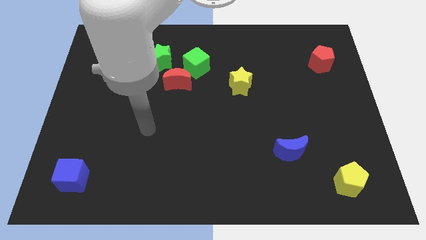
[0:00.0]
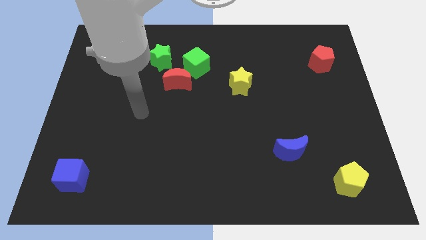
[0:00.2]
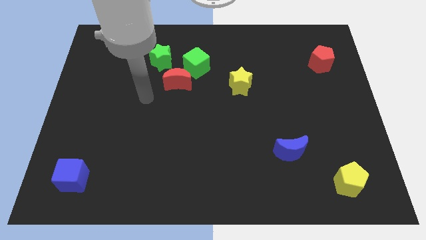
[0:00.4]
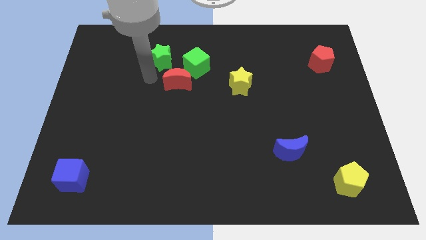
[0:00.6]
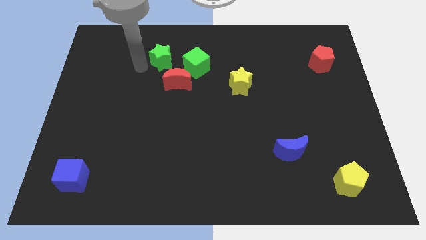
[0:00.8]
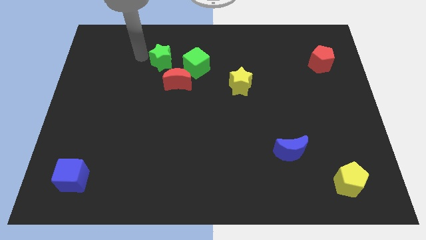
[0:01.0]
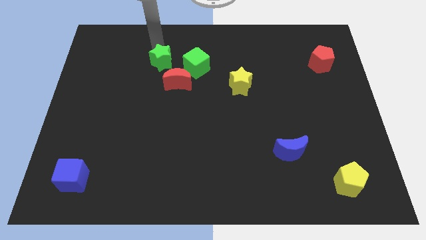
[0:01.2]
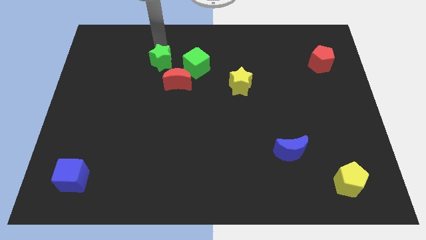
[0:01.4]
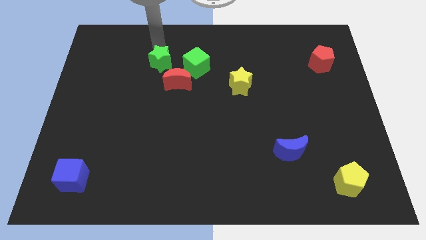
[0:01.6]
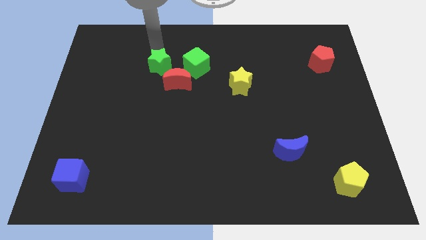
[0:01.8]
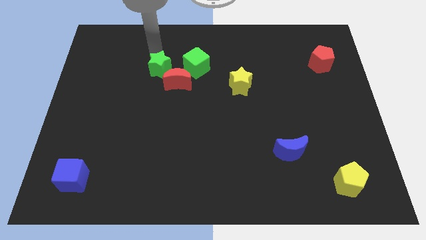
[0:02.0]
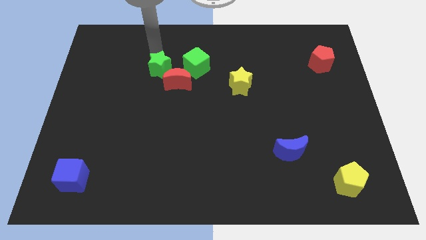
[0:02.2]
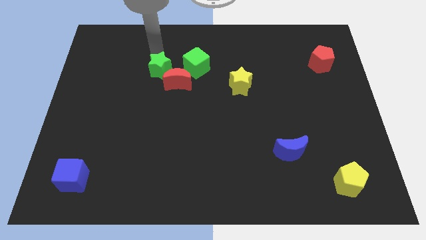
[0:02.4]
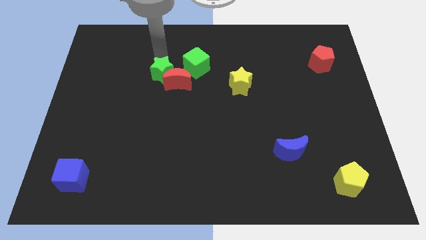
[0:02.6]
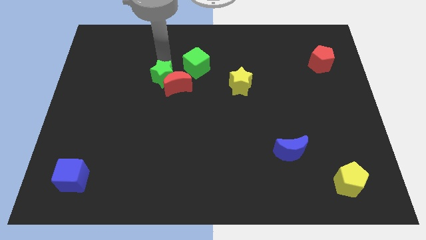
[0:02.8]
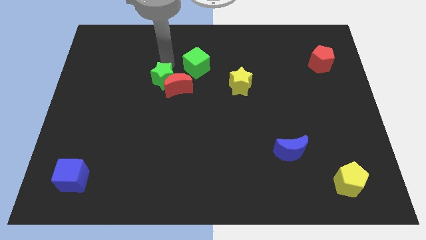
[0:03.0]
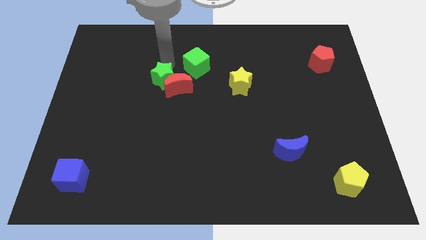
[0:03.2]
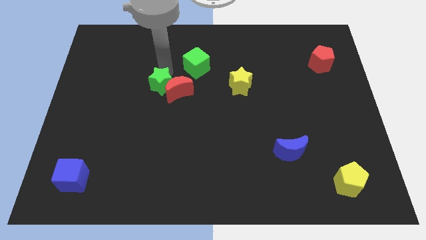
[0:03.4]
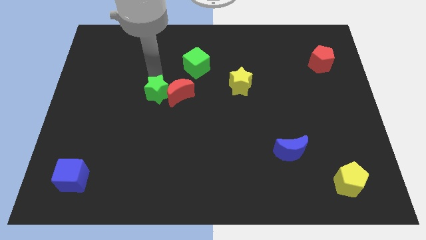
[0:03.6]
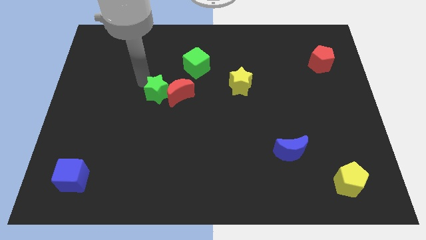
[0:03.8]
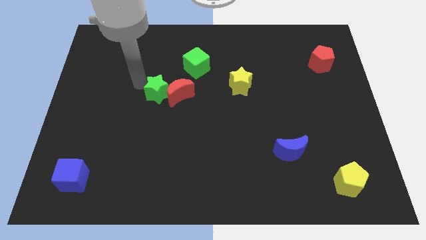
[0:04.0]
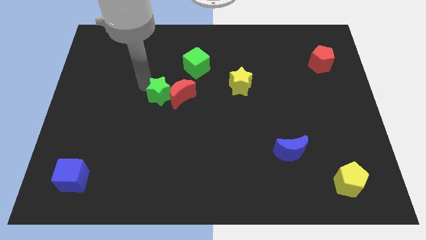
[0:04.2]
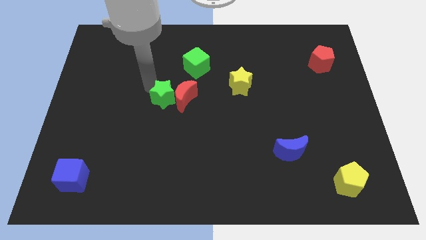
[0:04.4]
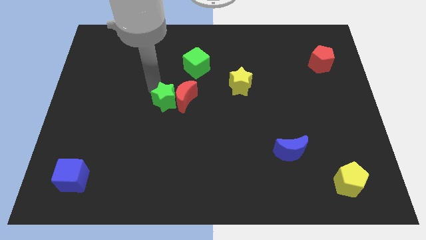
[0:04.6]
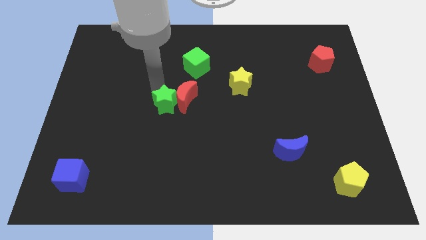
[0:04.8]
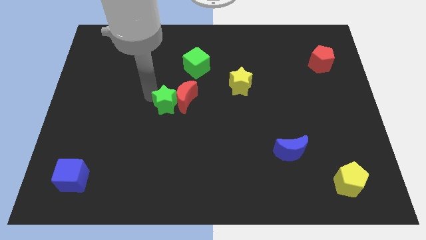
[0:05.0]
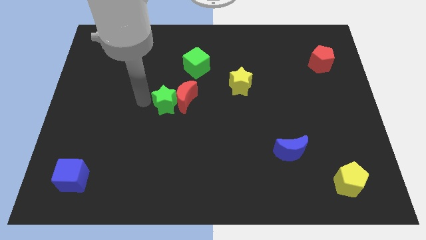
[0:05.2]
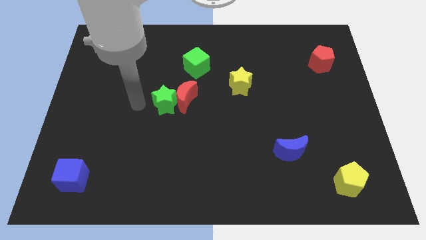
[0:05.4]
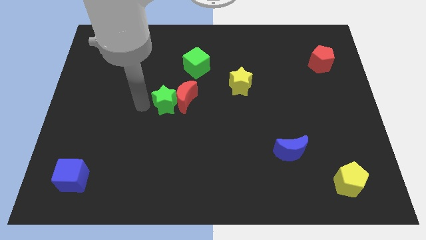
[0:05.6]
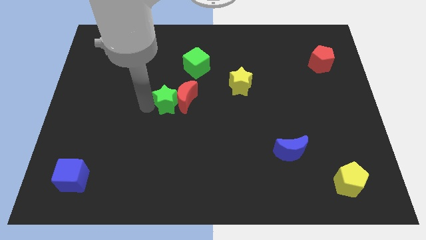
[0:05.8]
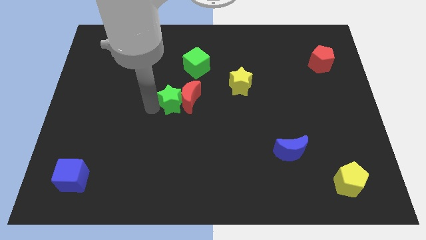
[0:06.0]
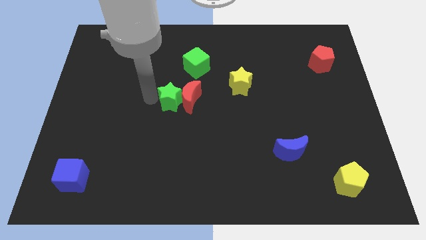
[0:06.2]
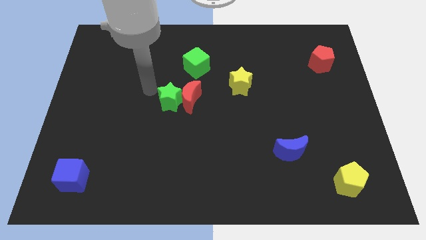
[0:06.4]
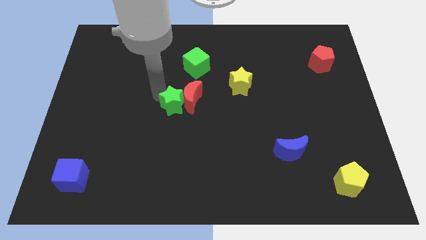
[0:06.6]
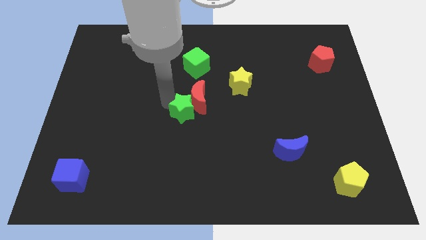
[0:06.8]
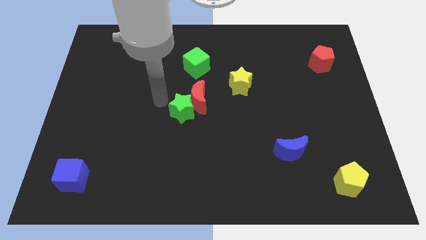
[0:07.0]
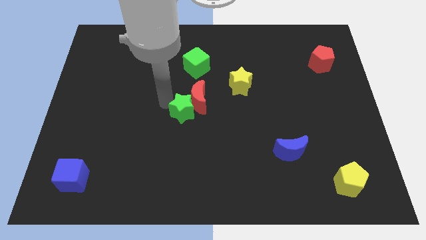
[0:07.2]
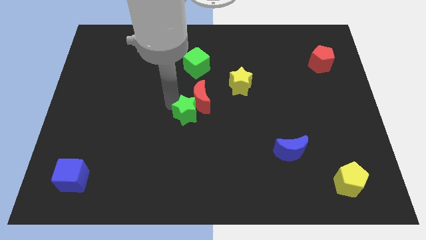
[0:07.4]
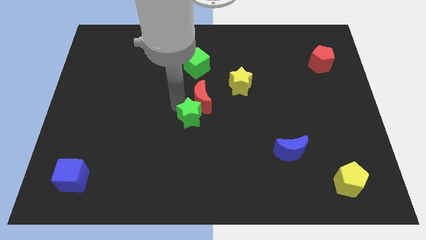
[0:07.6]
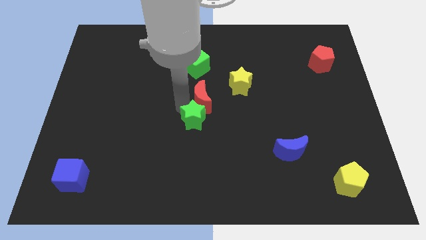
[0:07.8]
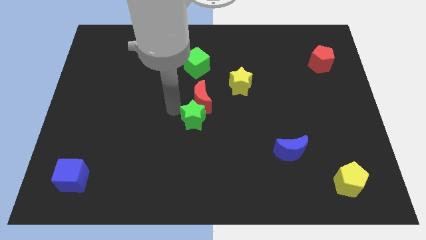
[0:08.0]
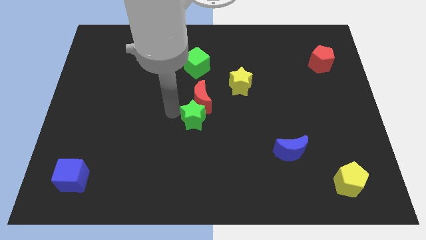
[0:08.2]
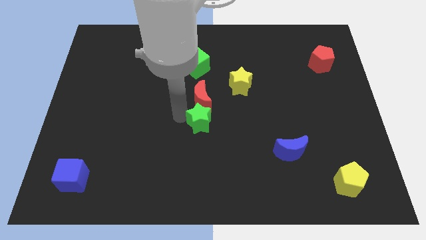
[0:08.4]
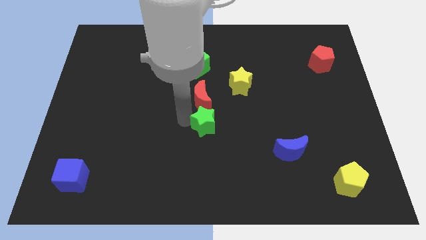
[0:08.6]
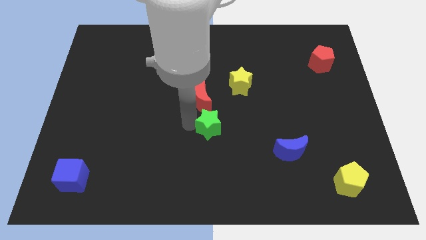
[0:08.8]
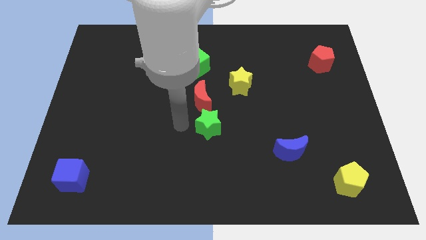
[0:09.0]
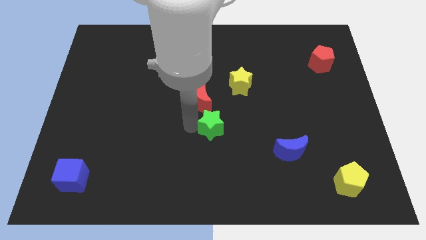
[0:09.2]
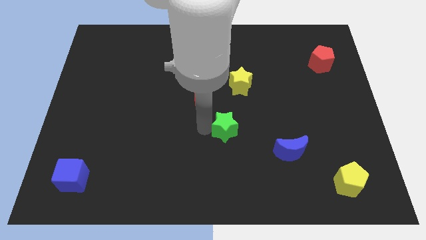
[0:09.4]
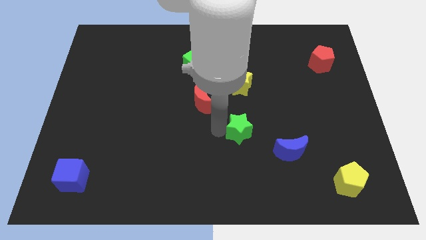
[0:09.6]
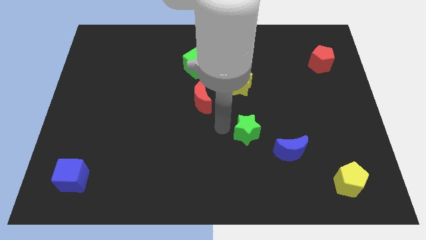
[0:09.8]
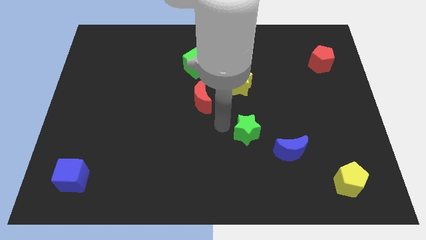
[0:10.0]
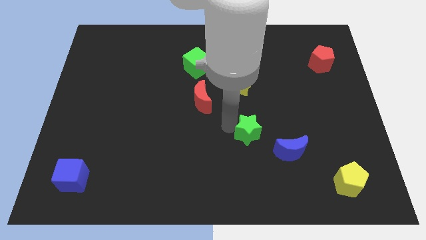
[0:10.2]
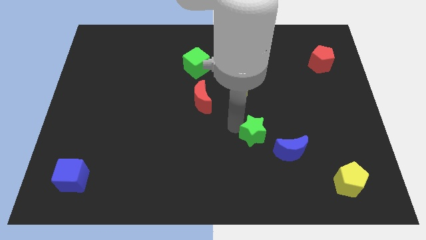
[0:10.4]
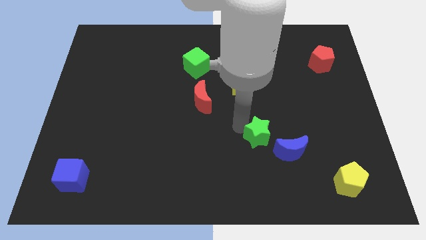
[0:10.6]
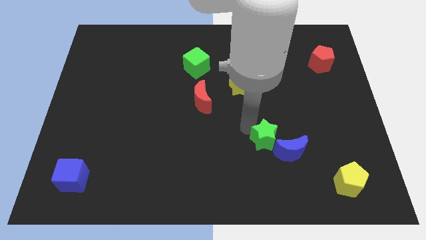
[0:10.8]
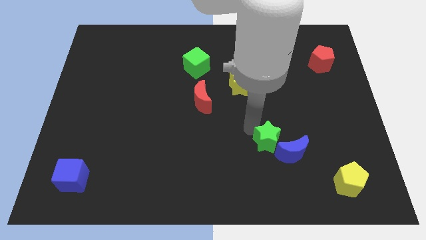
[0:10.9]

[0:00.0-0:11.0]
put the green star next to the blue moon

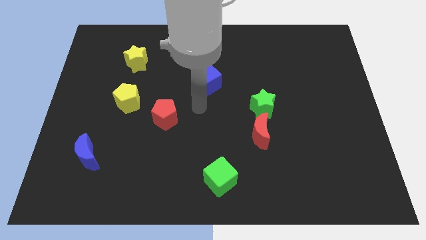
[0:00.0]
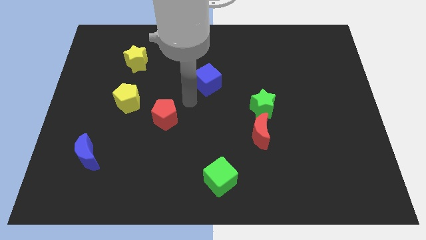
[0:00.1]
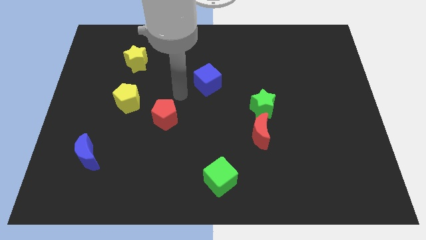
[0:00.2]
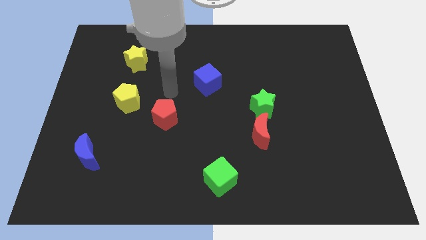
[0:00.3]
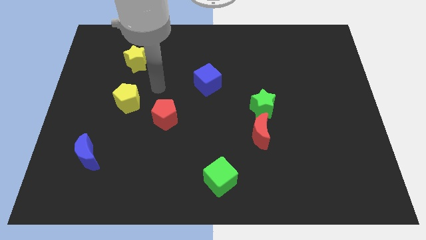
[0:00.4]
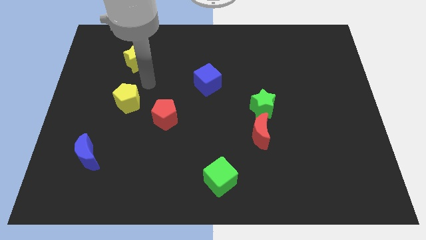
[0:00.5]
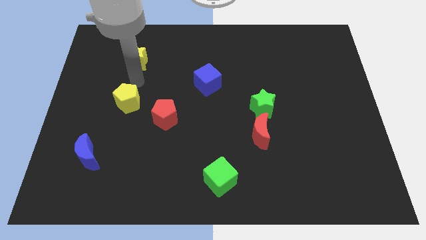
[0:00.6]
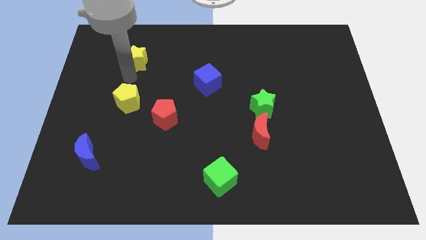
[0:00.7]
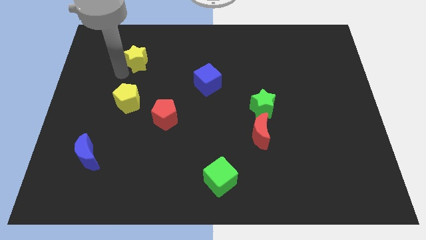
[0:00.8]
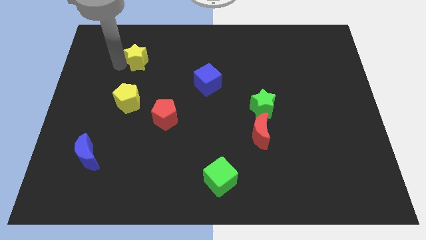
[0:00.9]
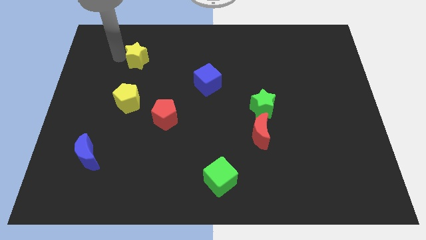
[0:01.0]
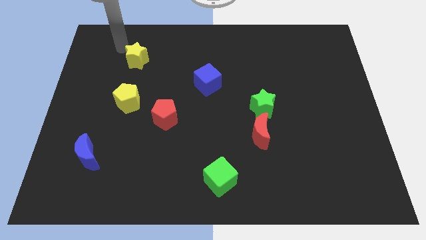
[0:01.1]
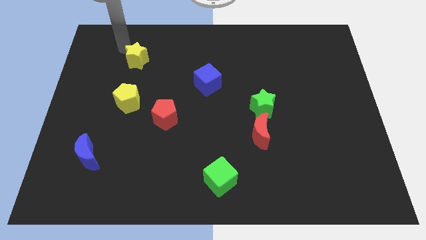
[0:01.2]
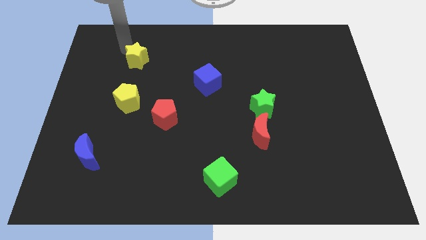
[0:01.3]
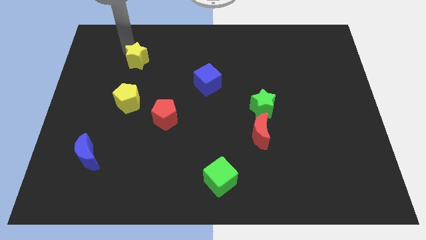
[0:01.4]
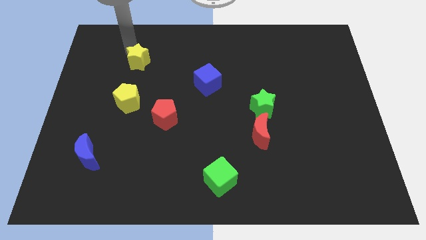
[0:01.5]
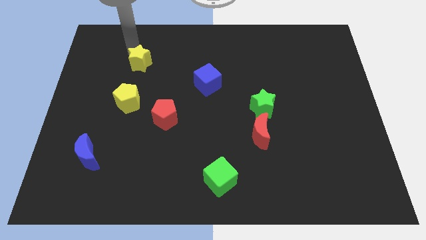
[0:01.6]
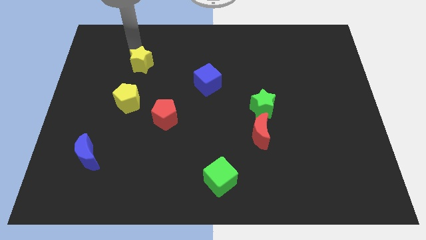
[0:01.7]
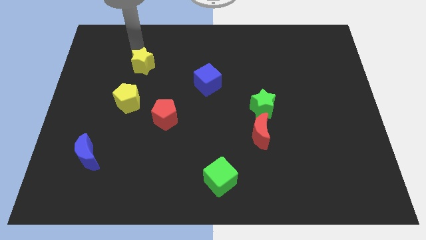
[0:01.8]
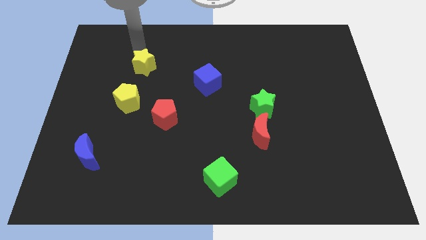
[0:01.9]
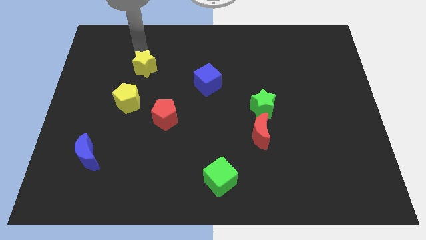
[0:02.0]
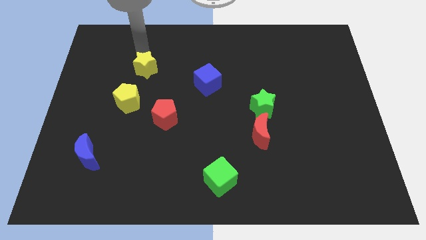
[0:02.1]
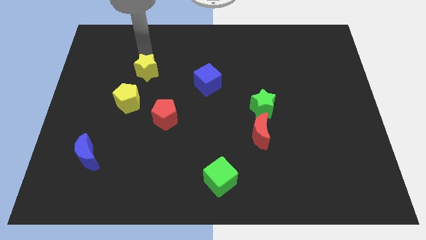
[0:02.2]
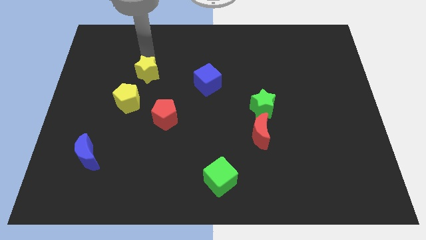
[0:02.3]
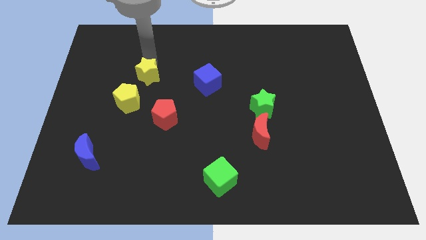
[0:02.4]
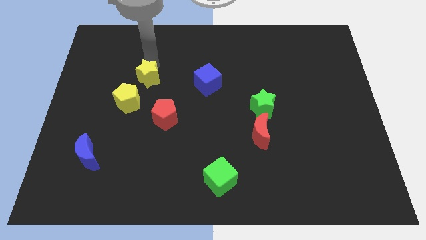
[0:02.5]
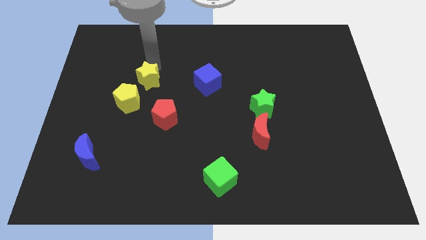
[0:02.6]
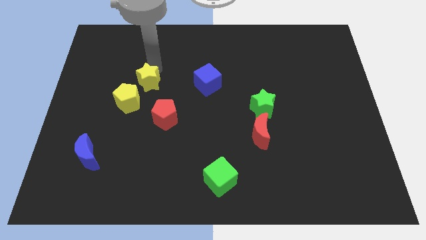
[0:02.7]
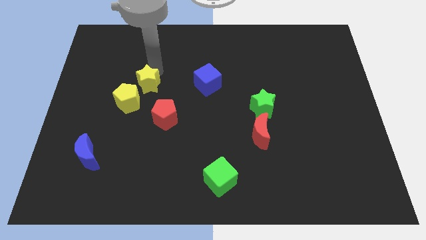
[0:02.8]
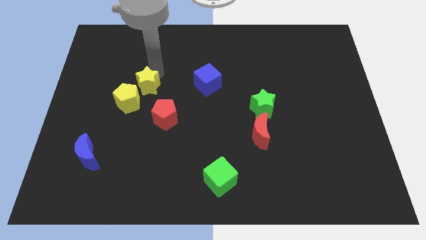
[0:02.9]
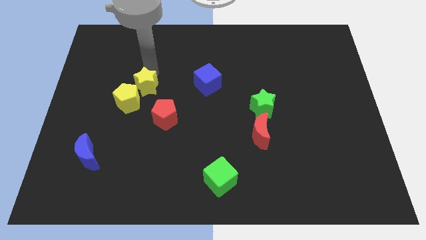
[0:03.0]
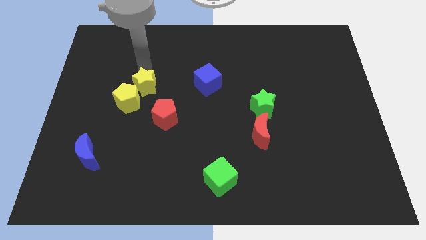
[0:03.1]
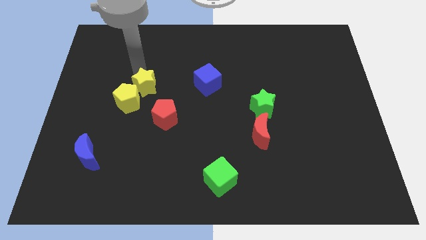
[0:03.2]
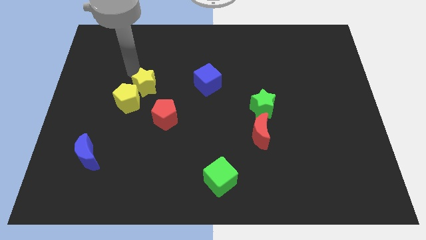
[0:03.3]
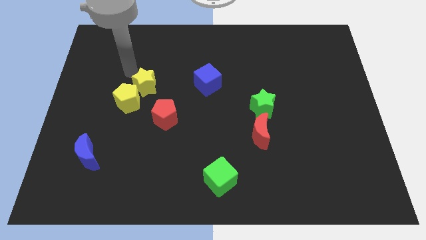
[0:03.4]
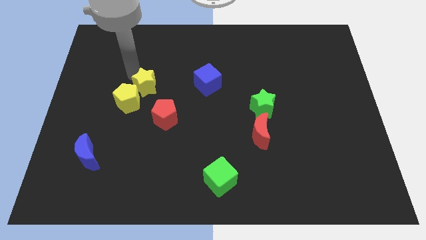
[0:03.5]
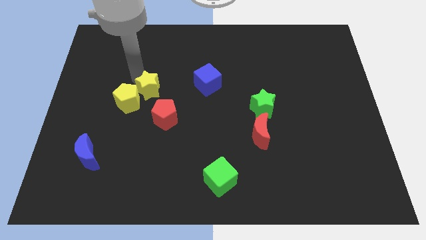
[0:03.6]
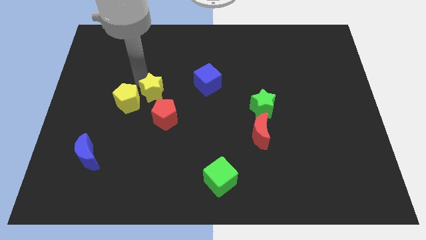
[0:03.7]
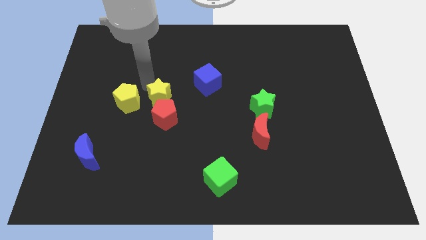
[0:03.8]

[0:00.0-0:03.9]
move the yellow star close to the red pentagon
